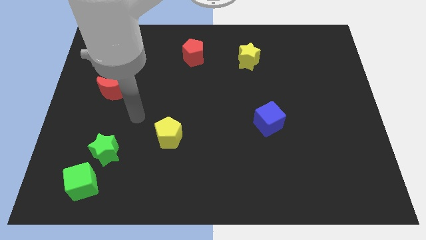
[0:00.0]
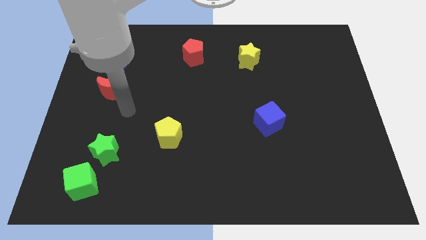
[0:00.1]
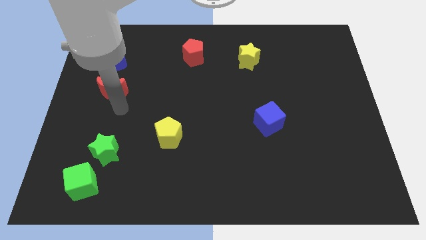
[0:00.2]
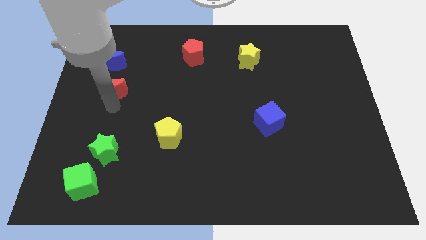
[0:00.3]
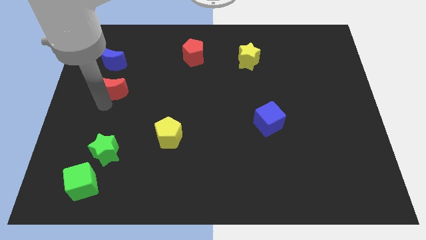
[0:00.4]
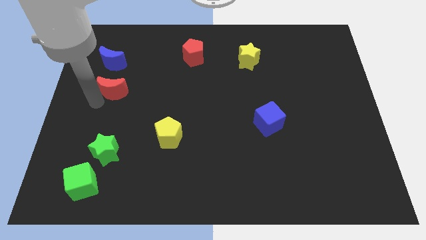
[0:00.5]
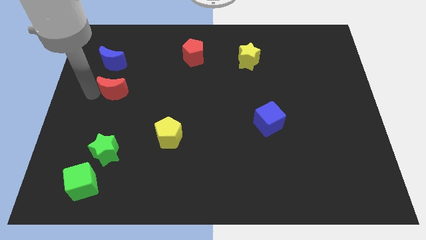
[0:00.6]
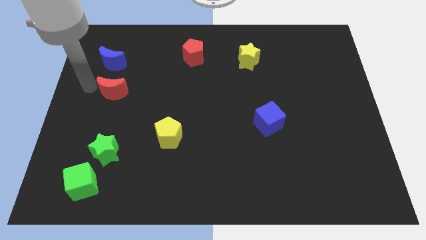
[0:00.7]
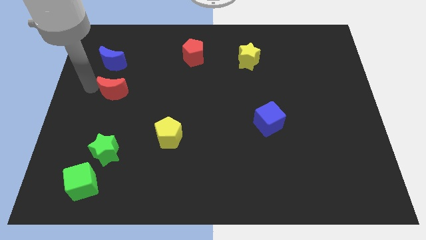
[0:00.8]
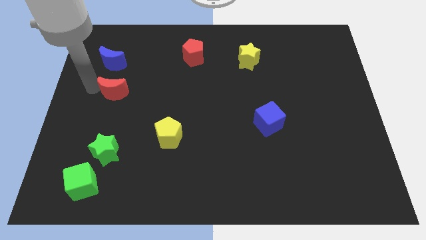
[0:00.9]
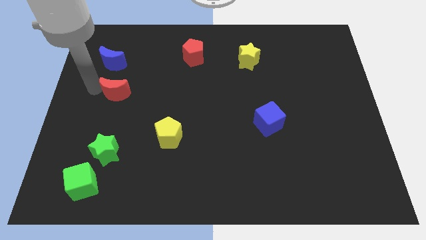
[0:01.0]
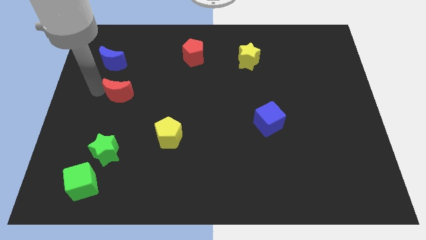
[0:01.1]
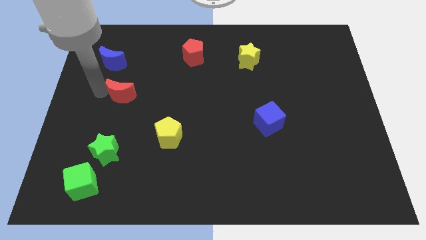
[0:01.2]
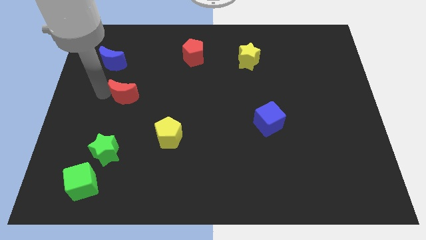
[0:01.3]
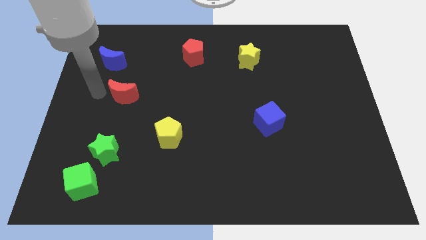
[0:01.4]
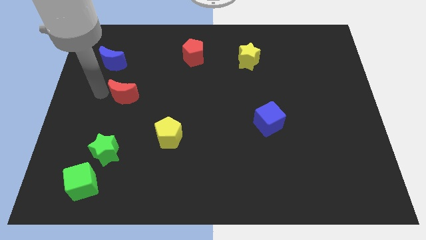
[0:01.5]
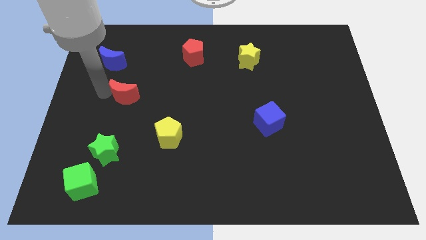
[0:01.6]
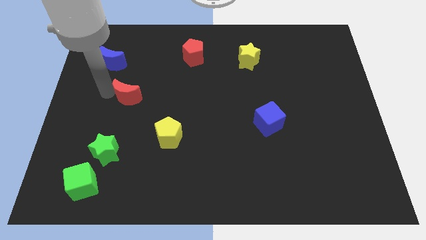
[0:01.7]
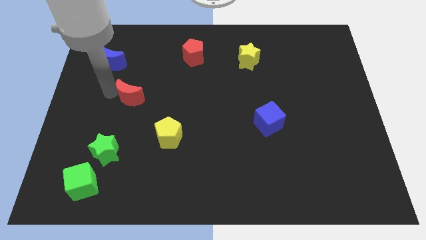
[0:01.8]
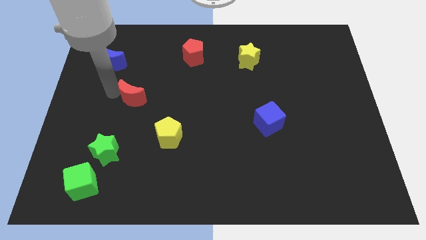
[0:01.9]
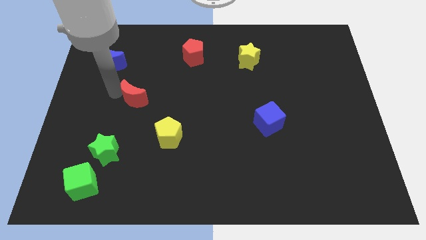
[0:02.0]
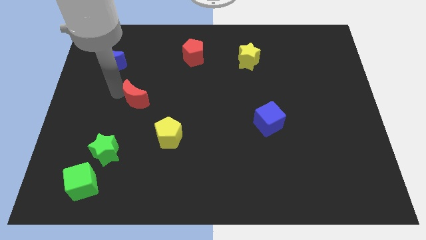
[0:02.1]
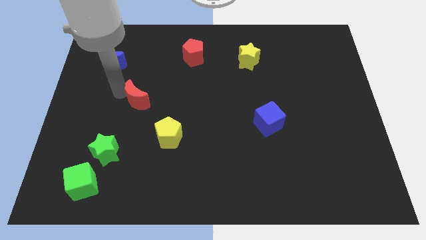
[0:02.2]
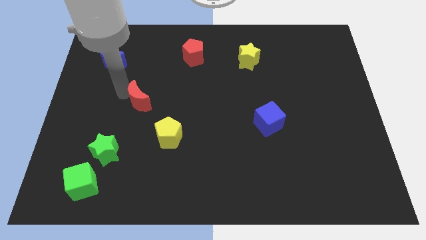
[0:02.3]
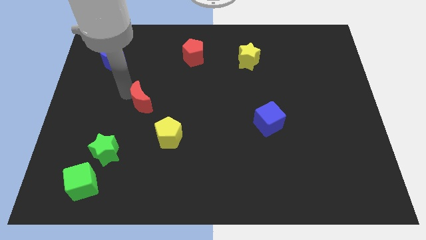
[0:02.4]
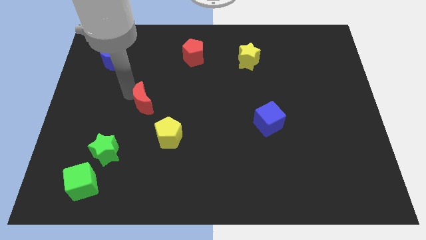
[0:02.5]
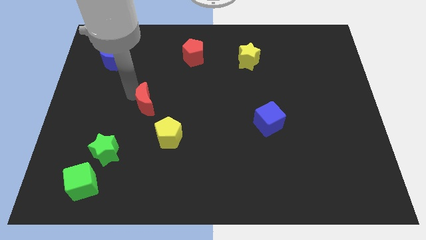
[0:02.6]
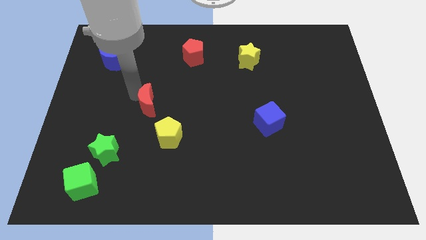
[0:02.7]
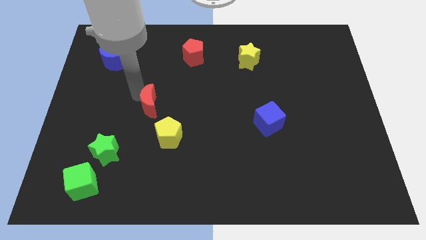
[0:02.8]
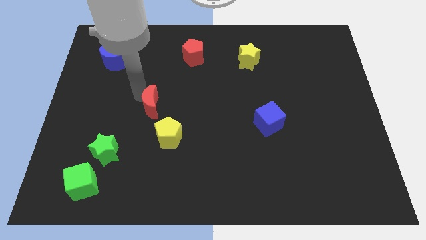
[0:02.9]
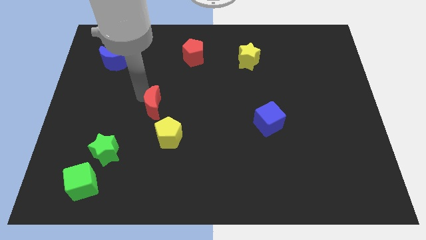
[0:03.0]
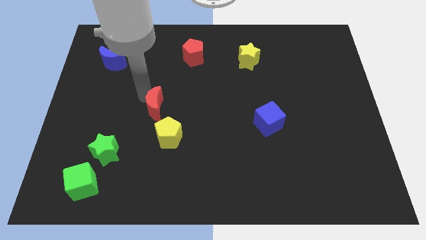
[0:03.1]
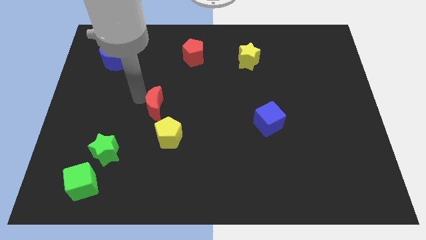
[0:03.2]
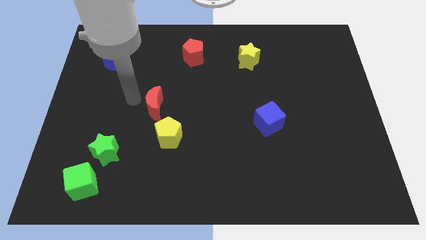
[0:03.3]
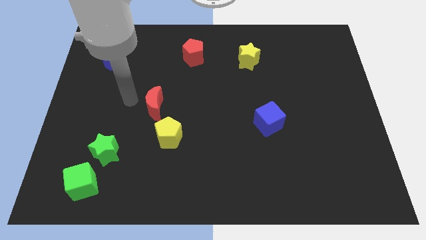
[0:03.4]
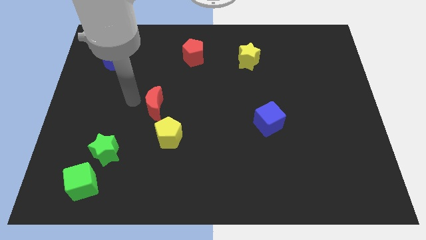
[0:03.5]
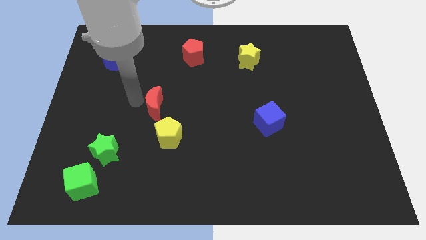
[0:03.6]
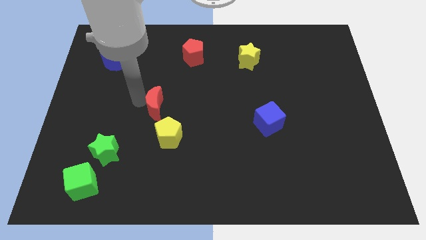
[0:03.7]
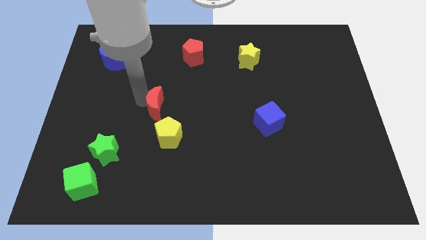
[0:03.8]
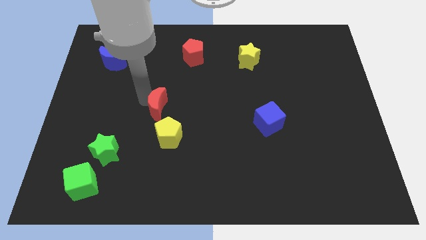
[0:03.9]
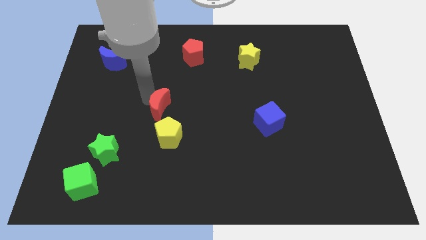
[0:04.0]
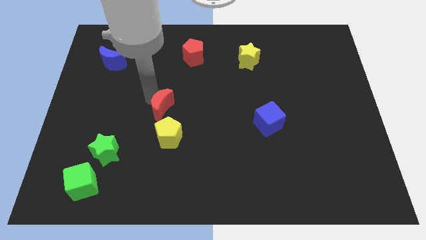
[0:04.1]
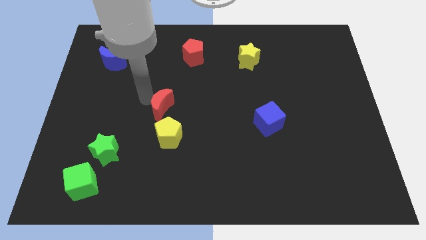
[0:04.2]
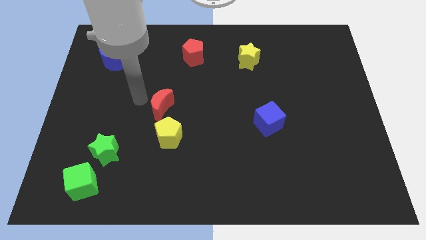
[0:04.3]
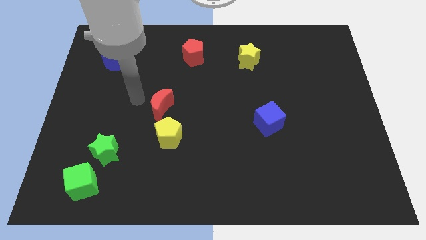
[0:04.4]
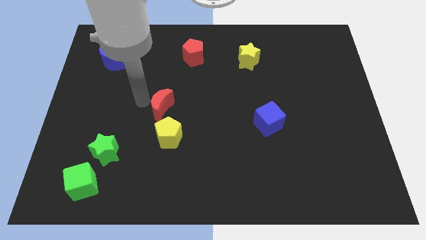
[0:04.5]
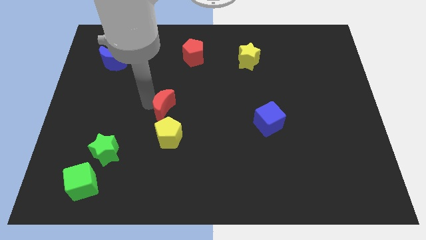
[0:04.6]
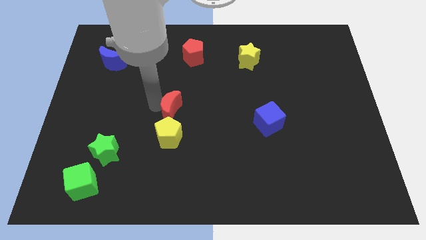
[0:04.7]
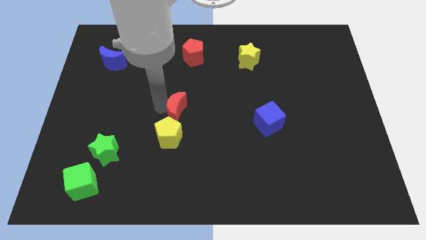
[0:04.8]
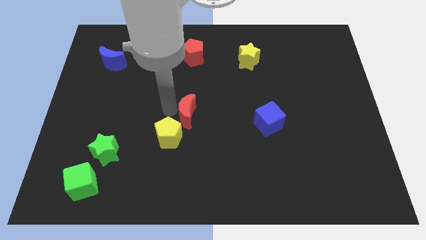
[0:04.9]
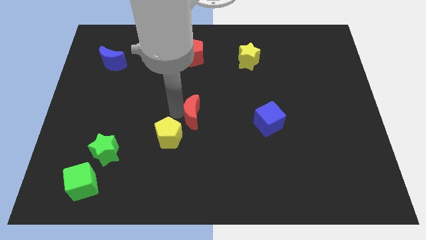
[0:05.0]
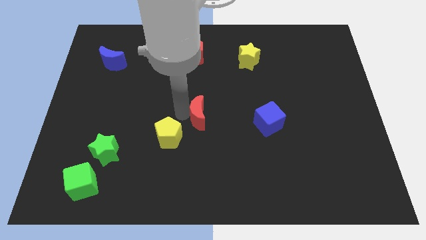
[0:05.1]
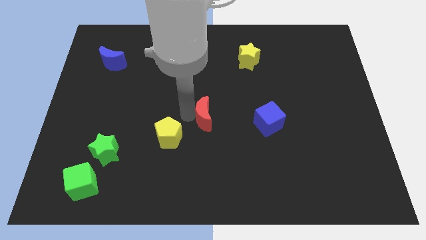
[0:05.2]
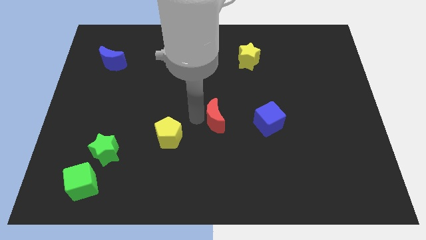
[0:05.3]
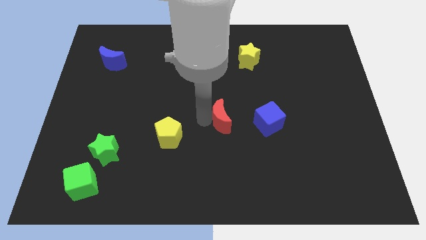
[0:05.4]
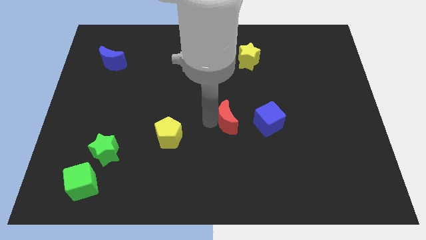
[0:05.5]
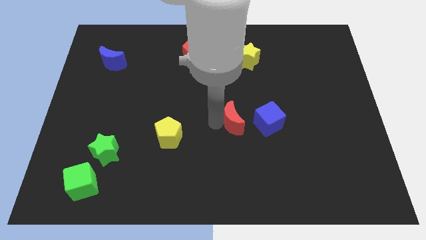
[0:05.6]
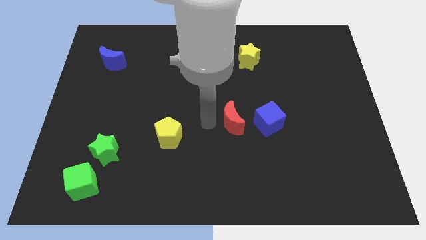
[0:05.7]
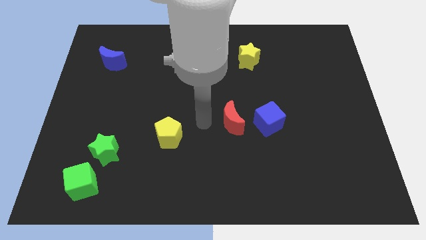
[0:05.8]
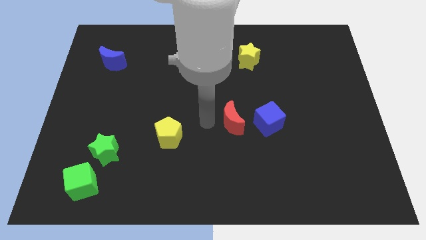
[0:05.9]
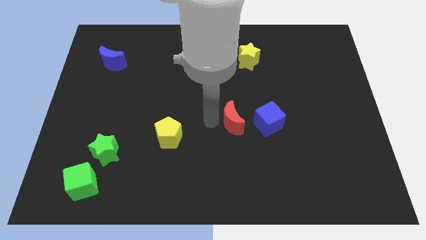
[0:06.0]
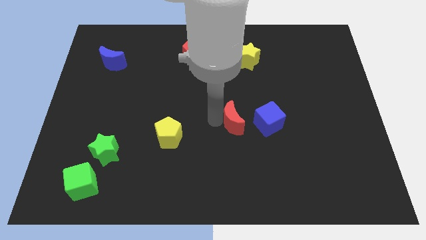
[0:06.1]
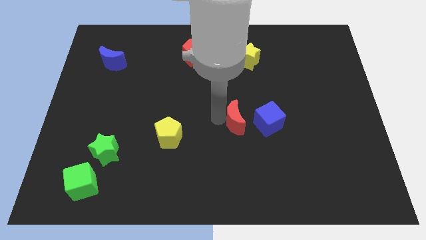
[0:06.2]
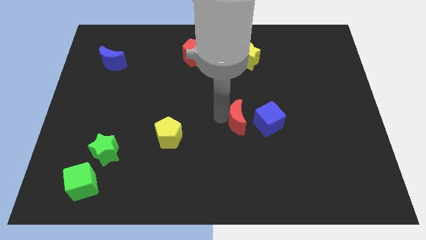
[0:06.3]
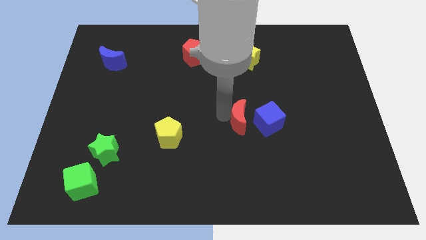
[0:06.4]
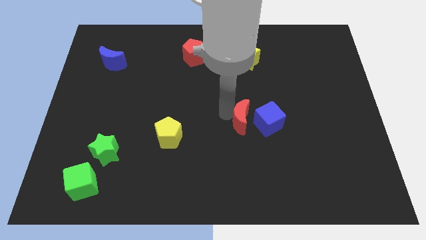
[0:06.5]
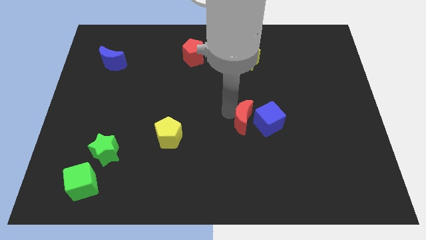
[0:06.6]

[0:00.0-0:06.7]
push the red moon next to the blue cube

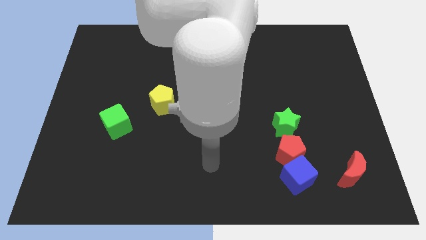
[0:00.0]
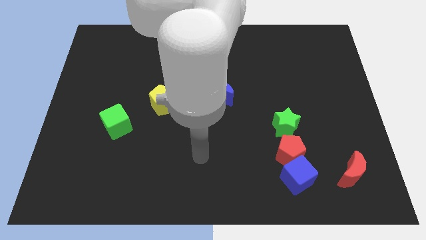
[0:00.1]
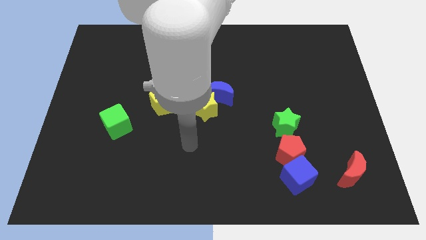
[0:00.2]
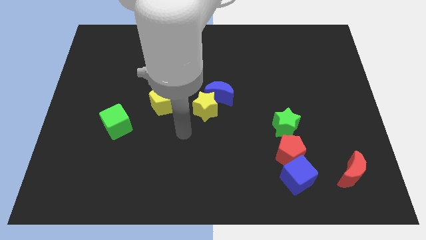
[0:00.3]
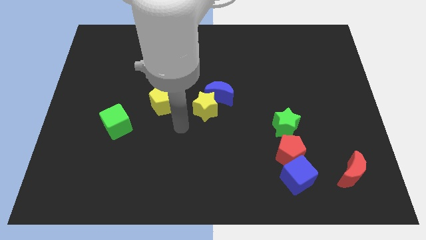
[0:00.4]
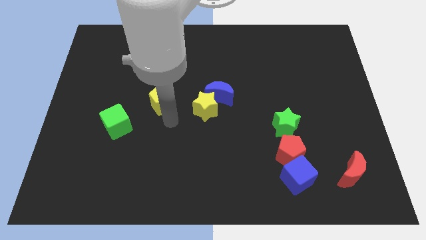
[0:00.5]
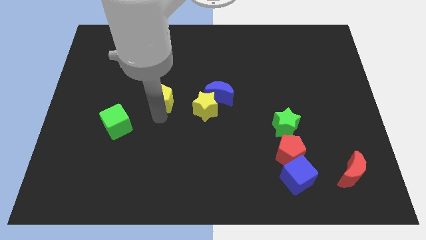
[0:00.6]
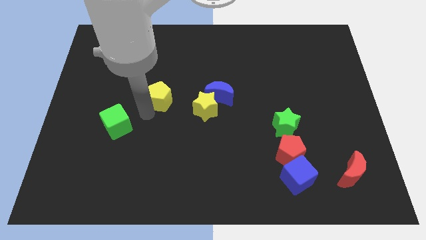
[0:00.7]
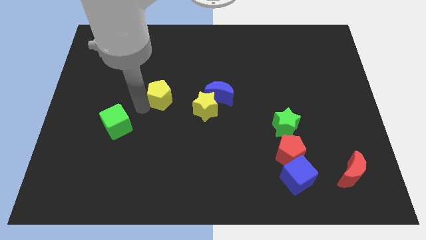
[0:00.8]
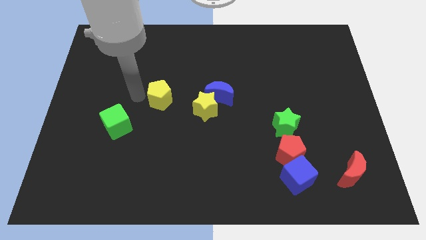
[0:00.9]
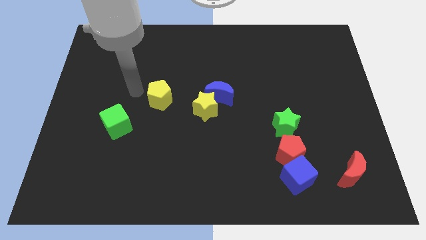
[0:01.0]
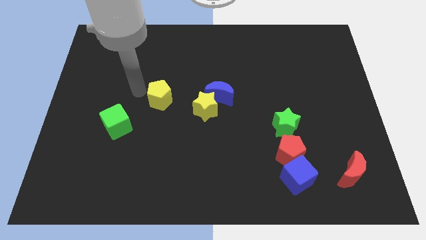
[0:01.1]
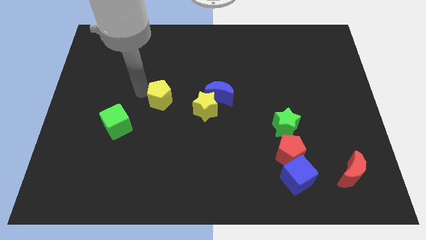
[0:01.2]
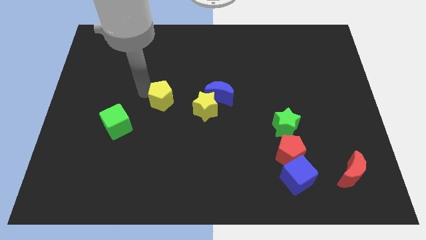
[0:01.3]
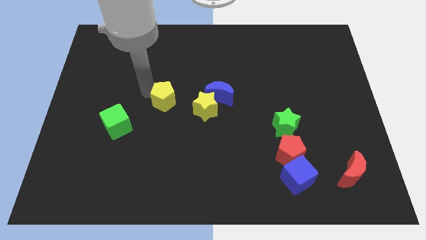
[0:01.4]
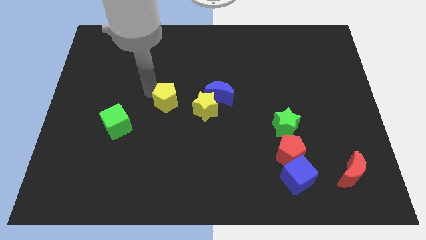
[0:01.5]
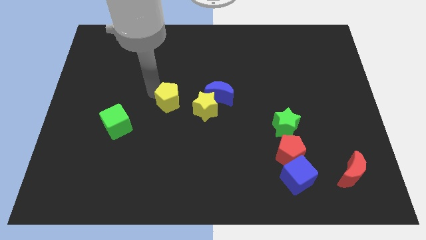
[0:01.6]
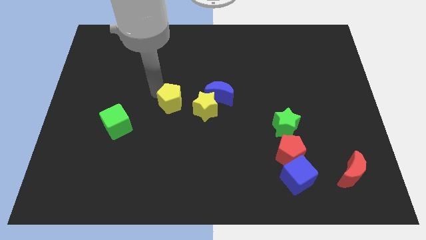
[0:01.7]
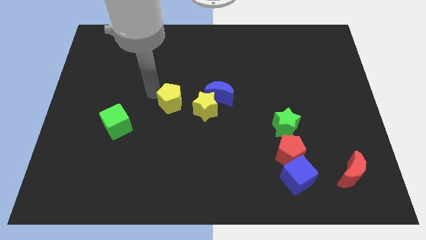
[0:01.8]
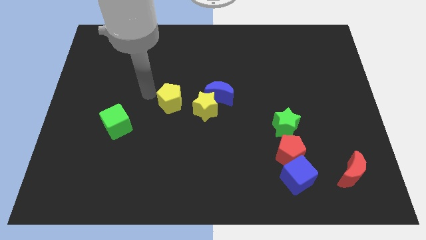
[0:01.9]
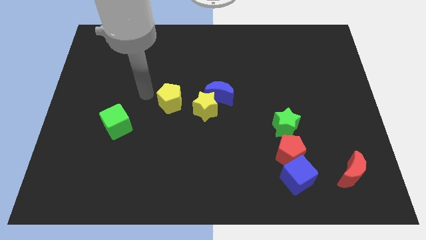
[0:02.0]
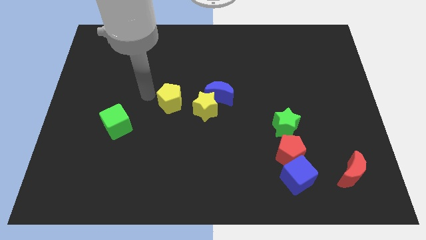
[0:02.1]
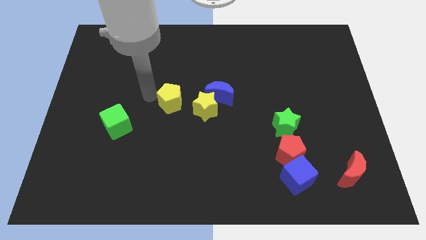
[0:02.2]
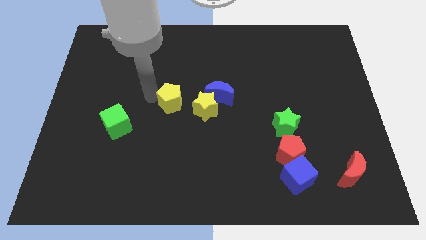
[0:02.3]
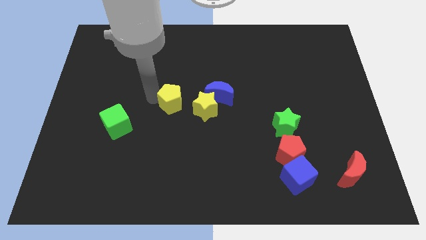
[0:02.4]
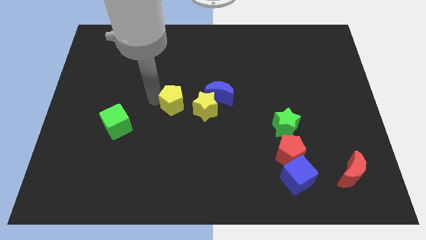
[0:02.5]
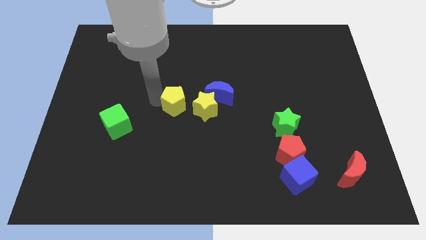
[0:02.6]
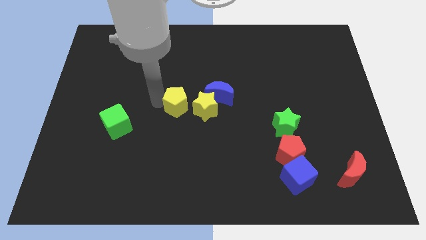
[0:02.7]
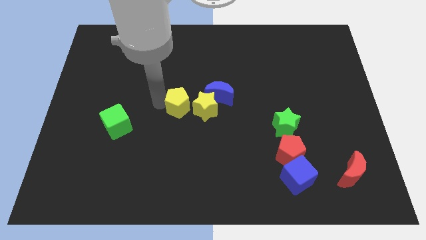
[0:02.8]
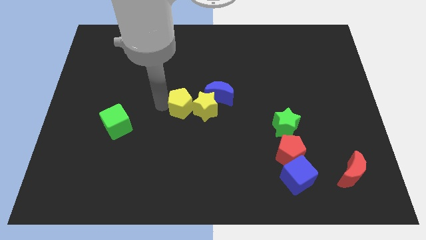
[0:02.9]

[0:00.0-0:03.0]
push the yellow pentagon next to the yellow star
